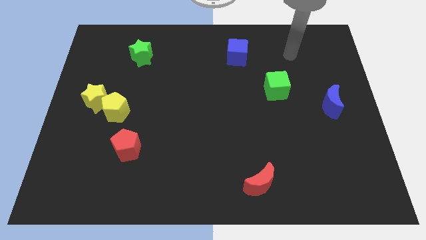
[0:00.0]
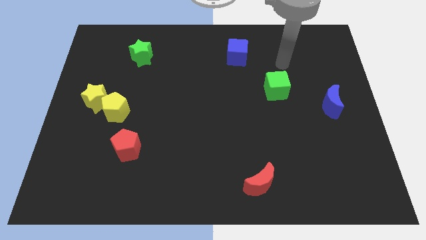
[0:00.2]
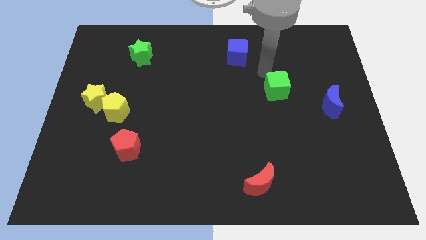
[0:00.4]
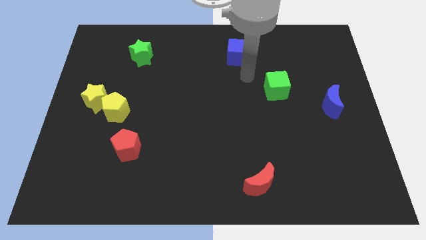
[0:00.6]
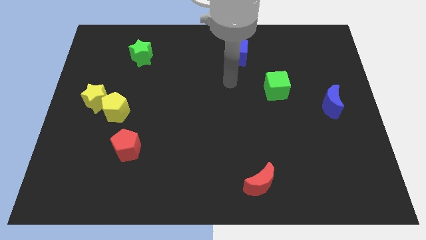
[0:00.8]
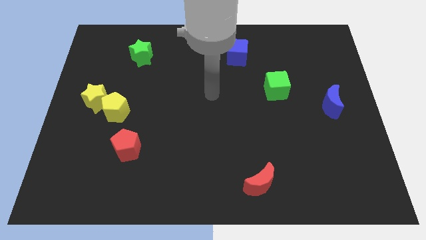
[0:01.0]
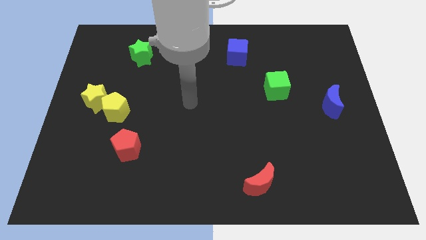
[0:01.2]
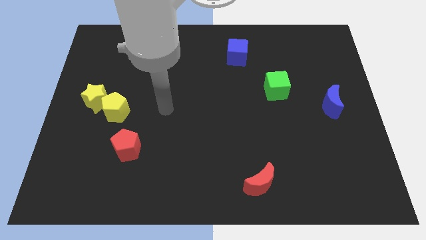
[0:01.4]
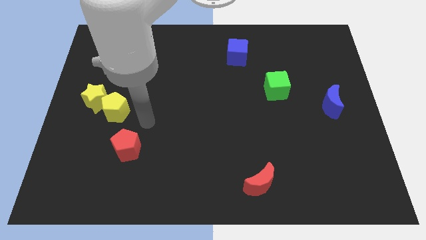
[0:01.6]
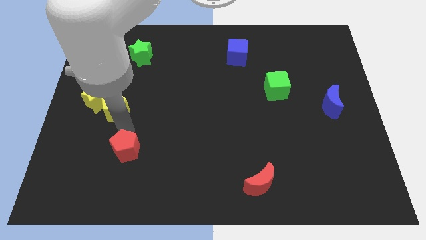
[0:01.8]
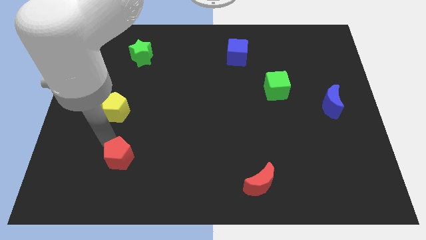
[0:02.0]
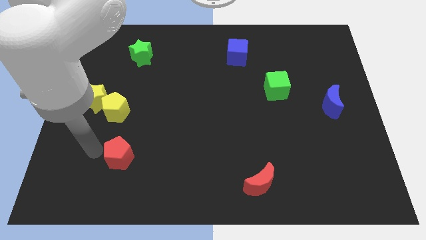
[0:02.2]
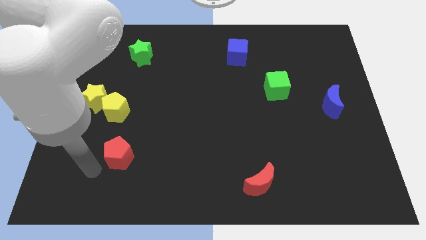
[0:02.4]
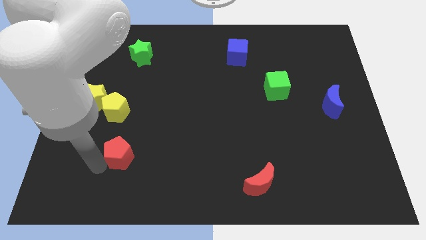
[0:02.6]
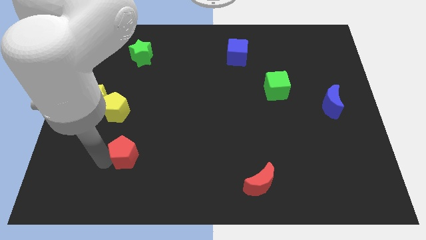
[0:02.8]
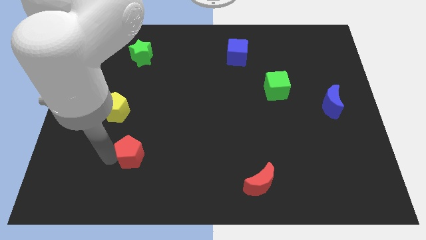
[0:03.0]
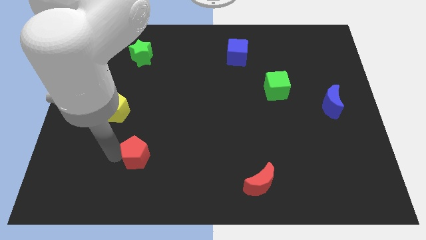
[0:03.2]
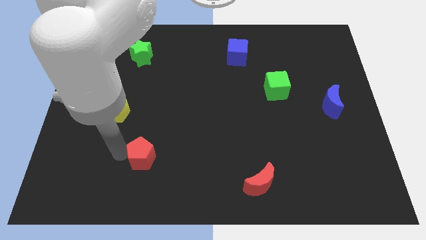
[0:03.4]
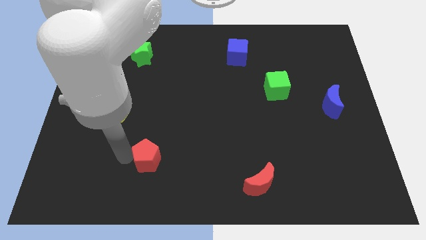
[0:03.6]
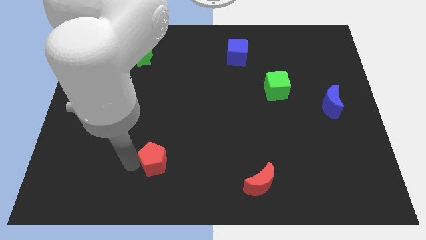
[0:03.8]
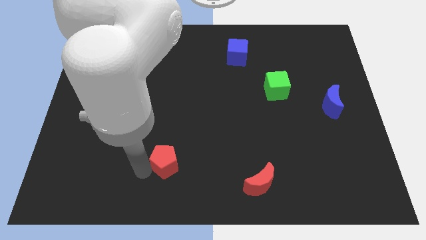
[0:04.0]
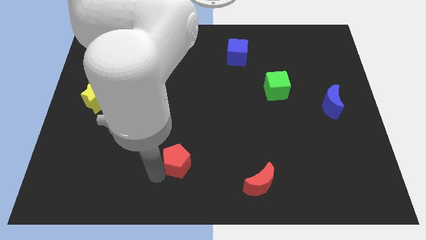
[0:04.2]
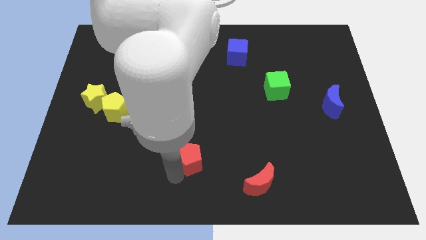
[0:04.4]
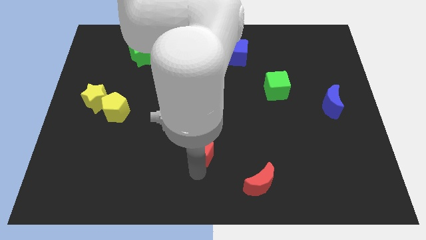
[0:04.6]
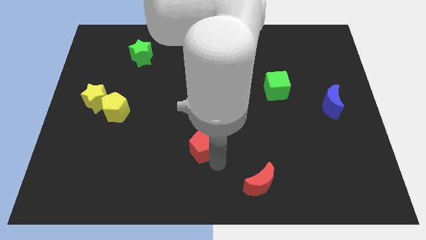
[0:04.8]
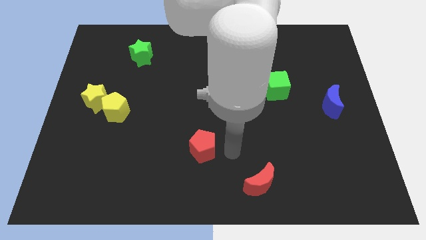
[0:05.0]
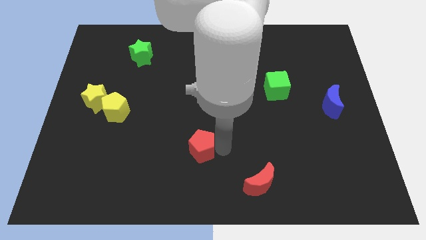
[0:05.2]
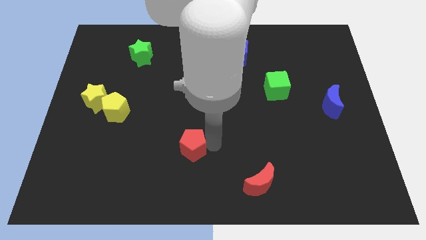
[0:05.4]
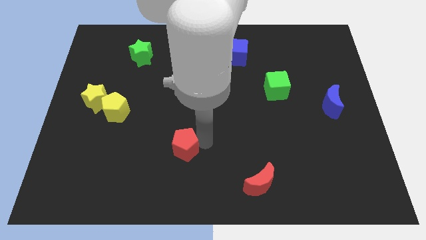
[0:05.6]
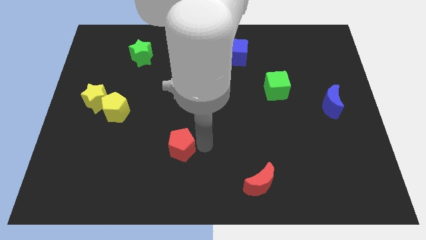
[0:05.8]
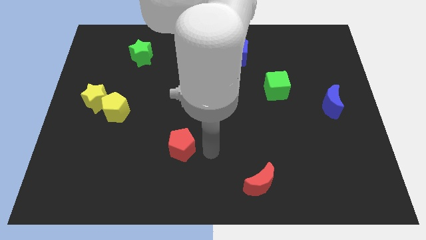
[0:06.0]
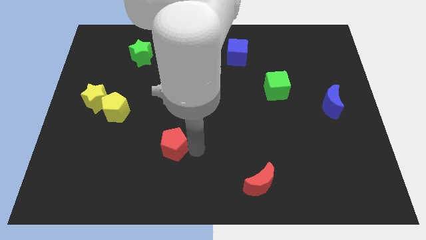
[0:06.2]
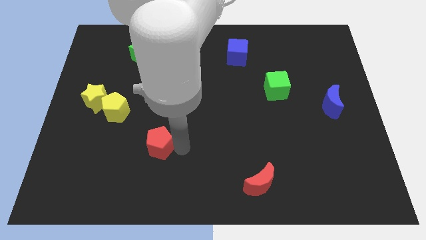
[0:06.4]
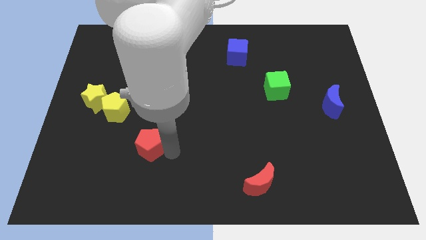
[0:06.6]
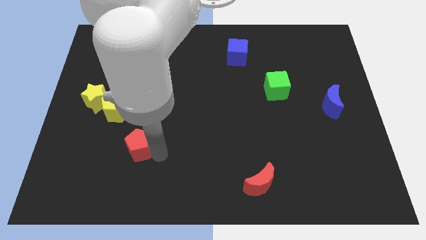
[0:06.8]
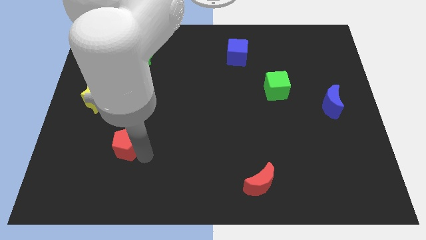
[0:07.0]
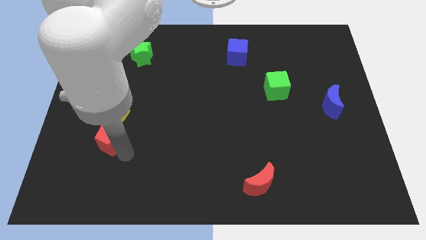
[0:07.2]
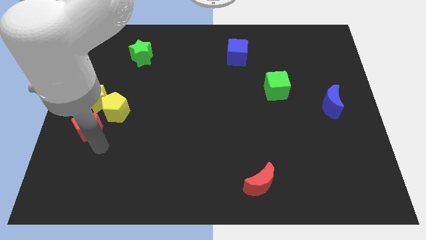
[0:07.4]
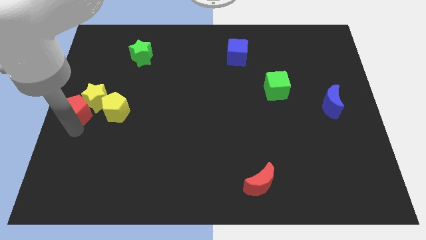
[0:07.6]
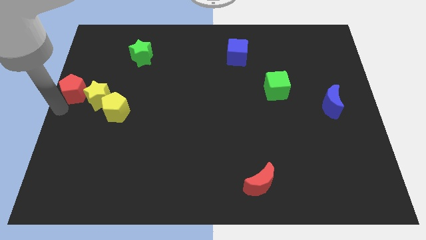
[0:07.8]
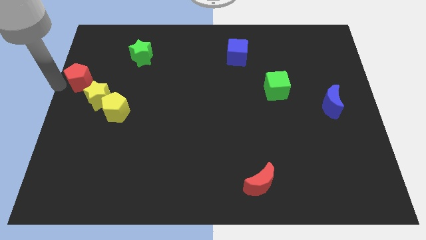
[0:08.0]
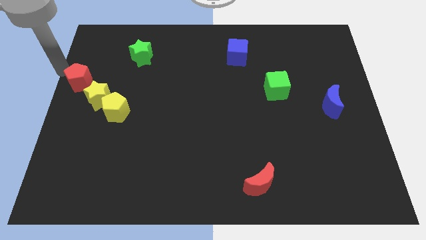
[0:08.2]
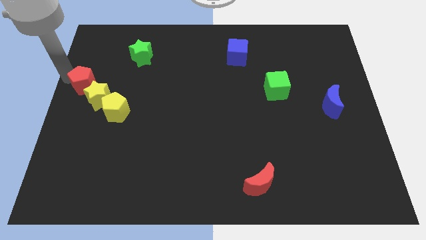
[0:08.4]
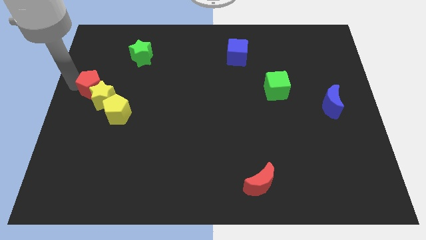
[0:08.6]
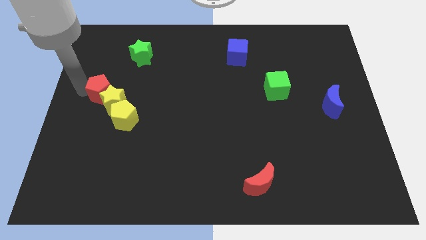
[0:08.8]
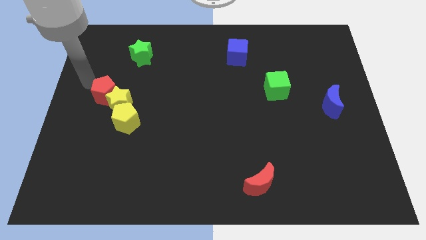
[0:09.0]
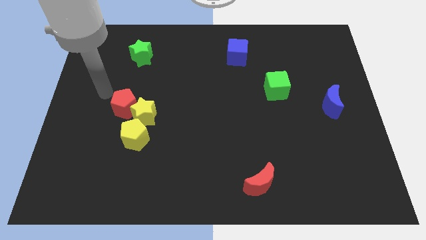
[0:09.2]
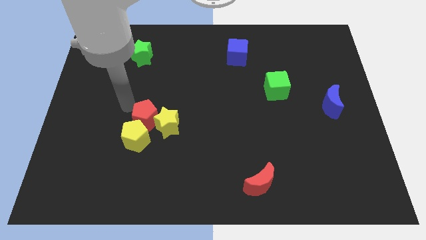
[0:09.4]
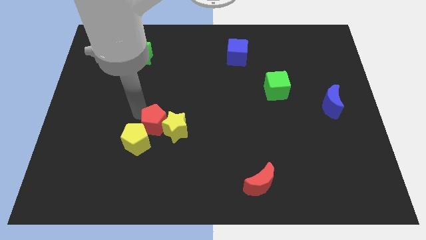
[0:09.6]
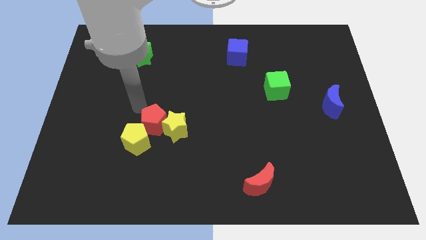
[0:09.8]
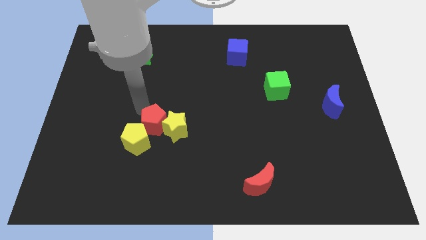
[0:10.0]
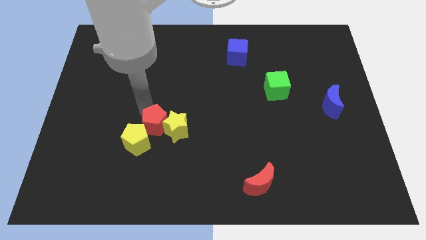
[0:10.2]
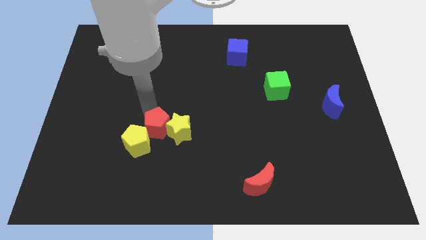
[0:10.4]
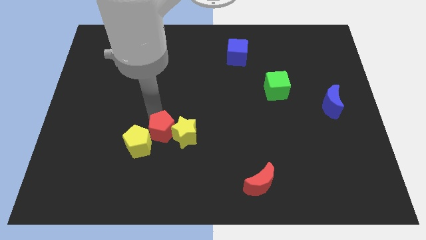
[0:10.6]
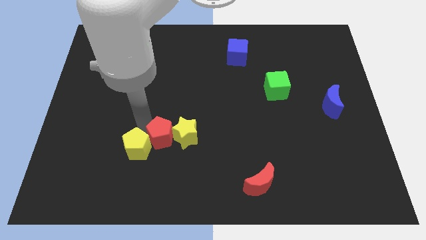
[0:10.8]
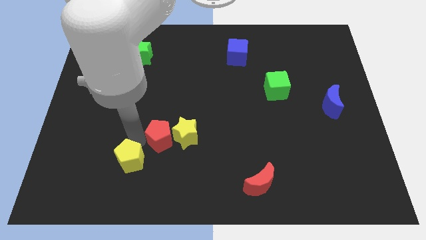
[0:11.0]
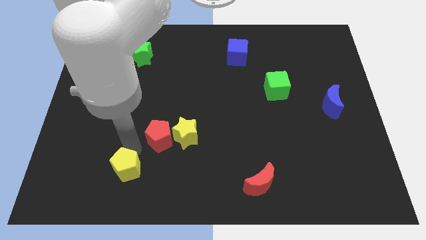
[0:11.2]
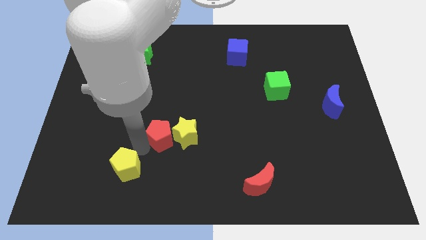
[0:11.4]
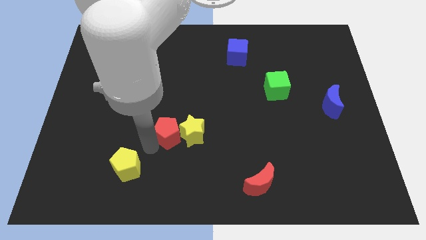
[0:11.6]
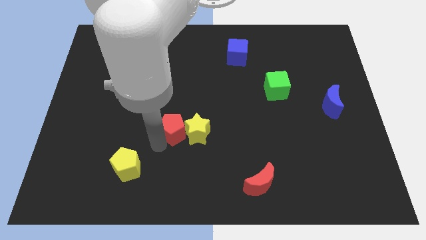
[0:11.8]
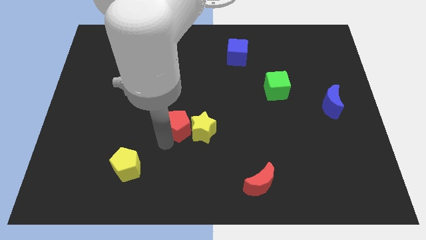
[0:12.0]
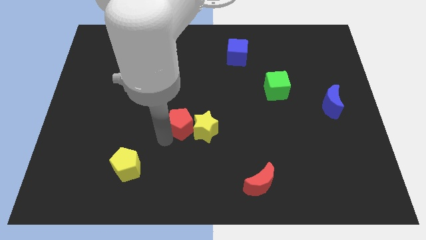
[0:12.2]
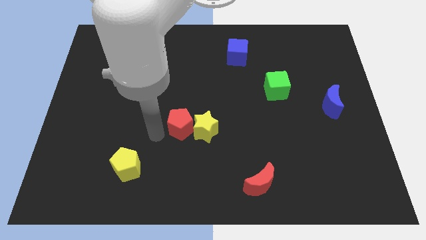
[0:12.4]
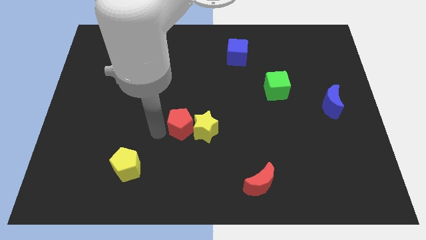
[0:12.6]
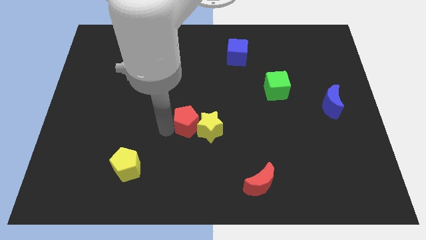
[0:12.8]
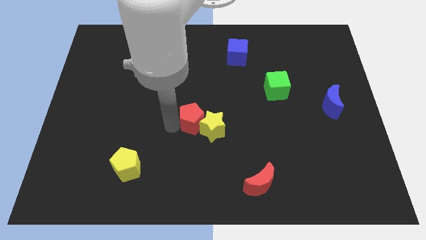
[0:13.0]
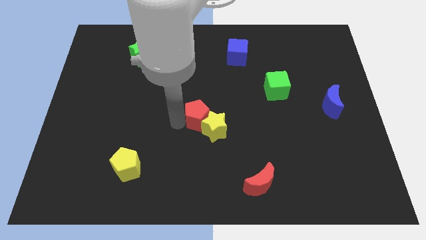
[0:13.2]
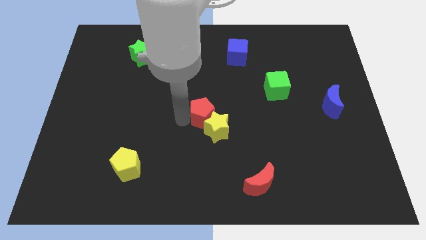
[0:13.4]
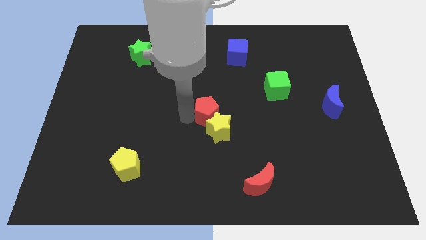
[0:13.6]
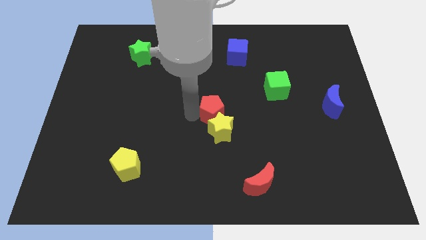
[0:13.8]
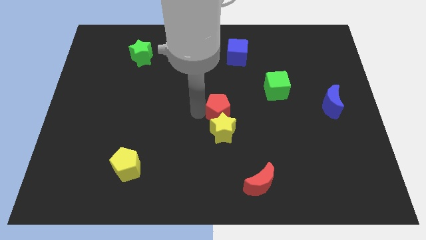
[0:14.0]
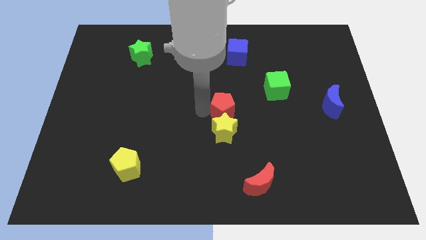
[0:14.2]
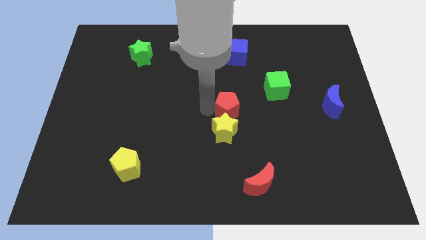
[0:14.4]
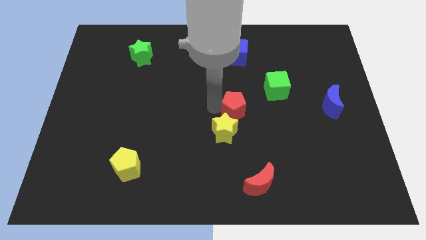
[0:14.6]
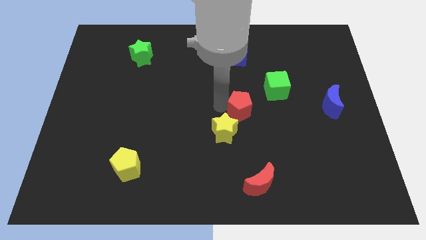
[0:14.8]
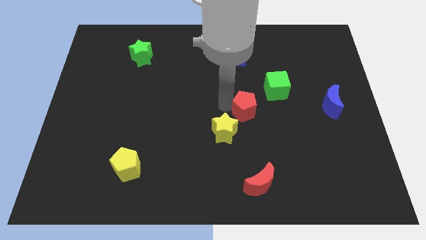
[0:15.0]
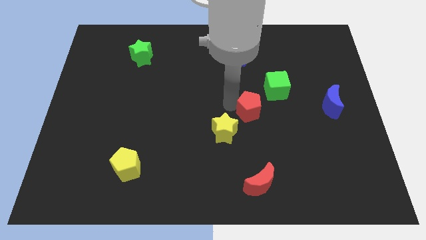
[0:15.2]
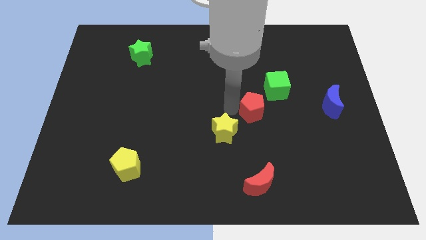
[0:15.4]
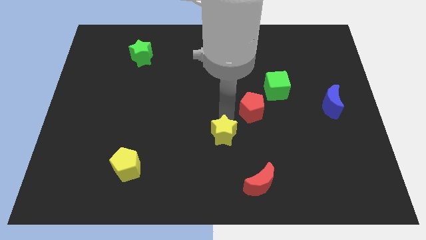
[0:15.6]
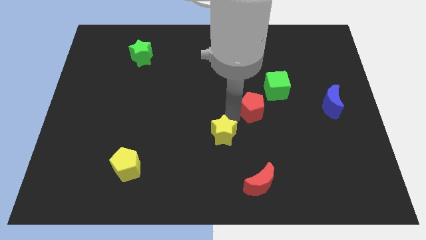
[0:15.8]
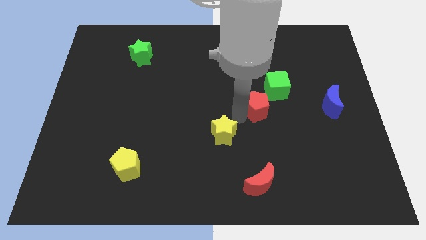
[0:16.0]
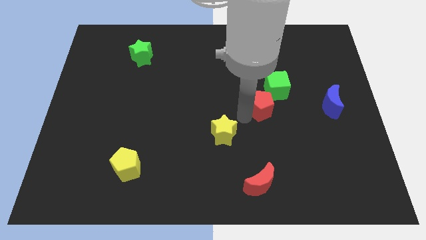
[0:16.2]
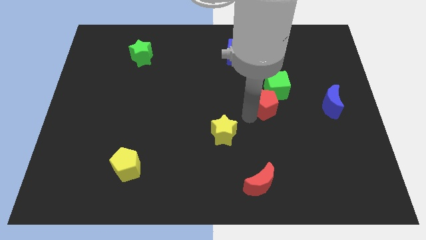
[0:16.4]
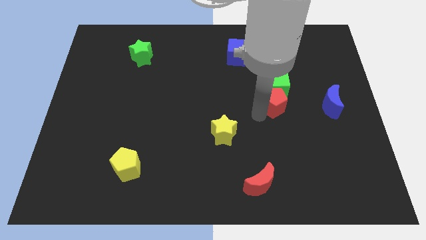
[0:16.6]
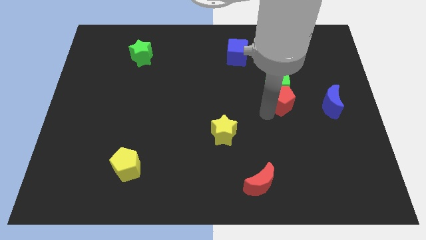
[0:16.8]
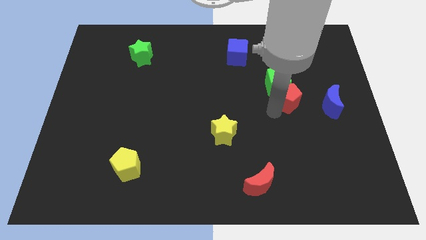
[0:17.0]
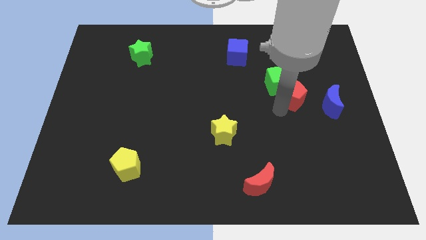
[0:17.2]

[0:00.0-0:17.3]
move the red pentagon to the top left of the blue moon
